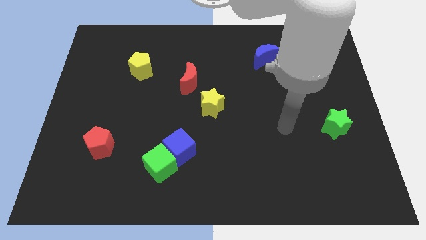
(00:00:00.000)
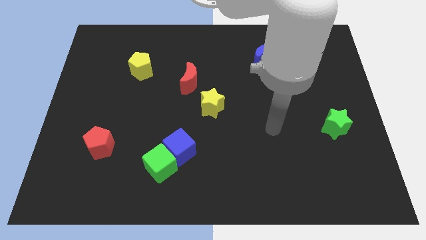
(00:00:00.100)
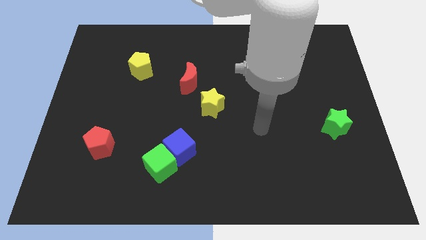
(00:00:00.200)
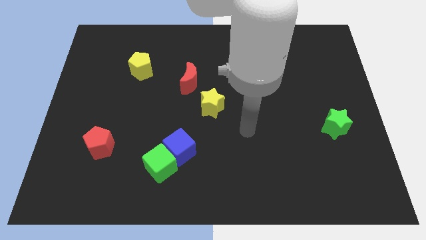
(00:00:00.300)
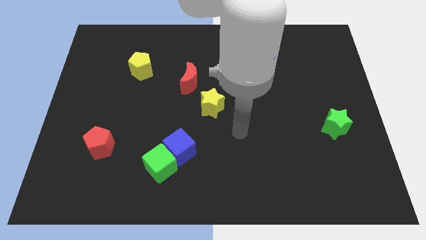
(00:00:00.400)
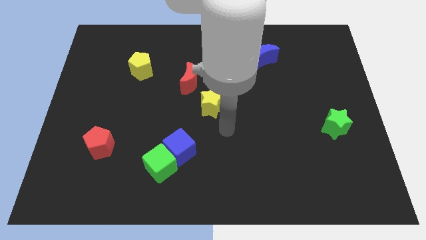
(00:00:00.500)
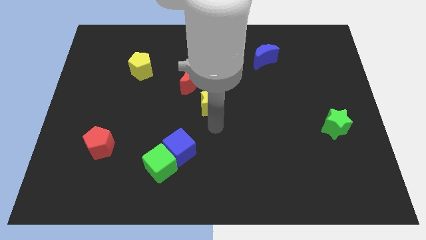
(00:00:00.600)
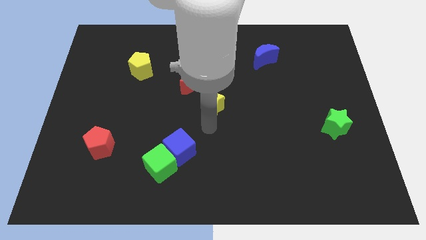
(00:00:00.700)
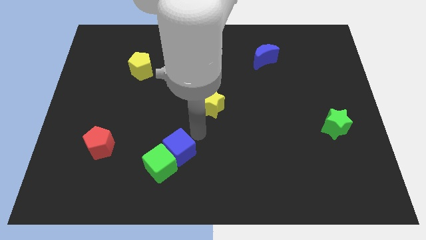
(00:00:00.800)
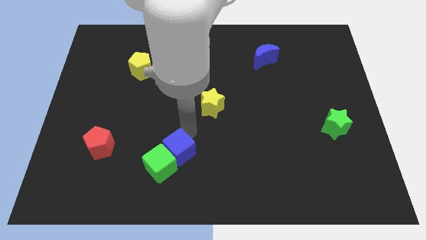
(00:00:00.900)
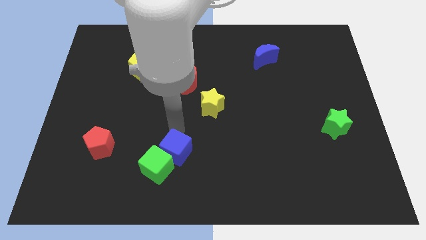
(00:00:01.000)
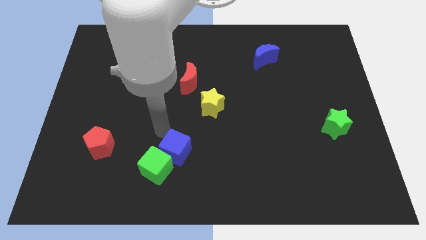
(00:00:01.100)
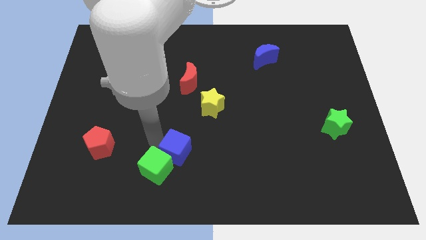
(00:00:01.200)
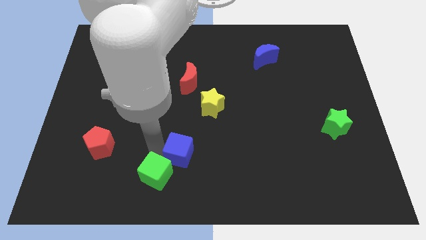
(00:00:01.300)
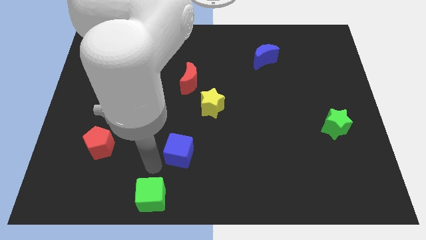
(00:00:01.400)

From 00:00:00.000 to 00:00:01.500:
move the blue cube away from the green cube

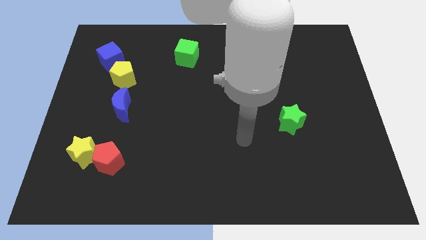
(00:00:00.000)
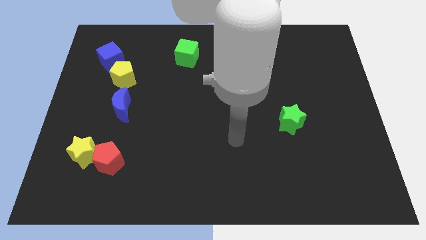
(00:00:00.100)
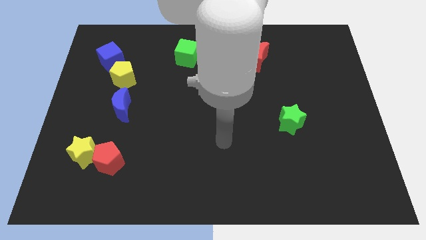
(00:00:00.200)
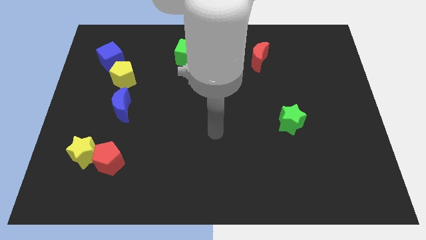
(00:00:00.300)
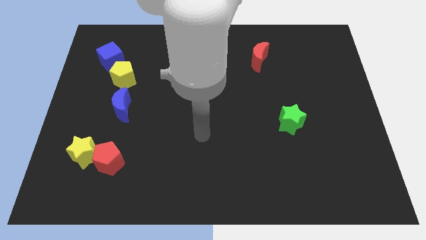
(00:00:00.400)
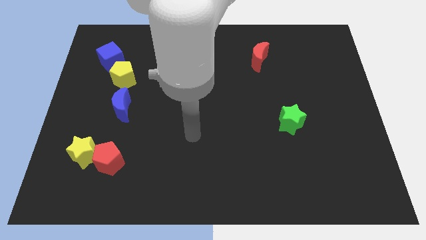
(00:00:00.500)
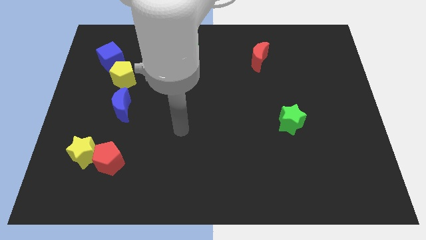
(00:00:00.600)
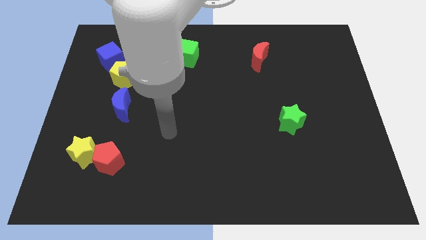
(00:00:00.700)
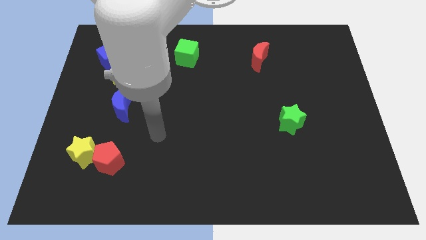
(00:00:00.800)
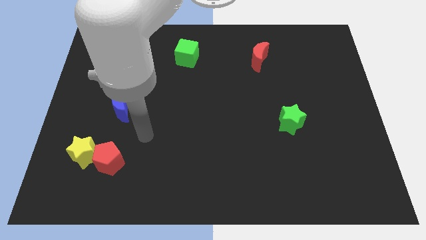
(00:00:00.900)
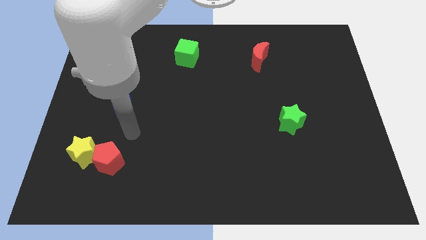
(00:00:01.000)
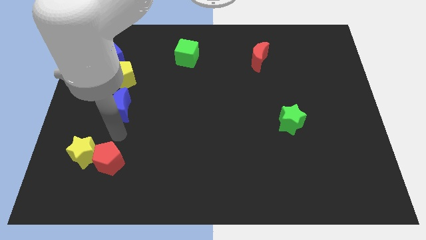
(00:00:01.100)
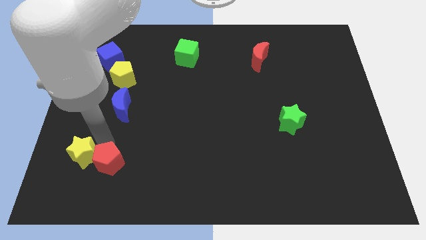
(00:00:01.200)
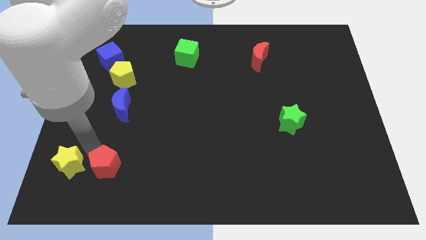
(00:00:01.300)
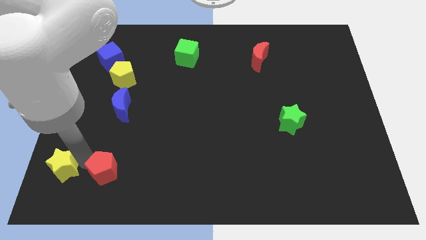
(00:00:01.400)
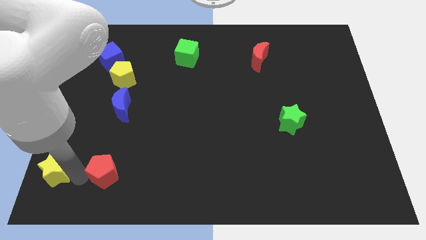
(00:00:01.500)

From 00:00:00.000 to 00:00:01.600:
pull the red pentagon apart from the yellow star

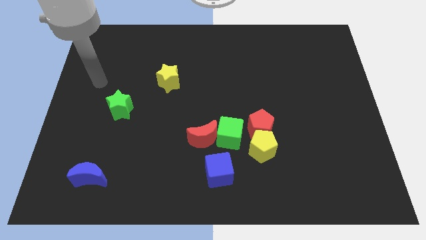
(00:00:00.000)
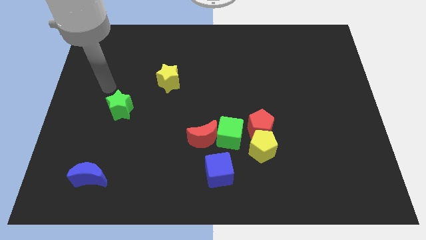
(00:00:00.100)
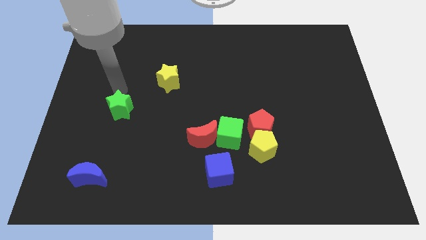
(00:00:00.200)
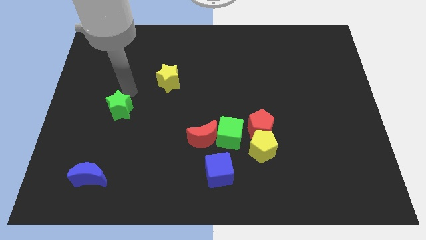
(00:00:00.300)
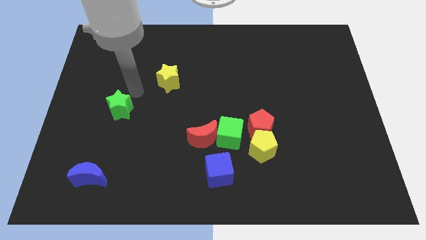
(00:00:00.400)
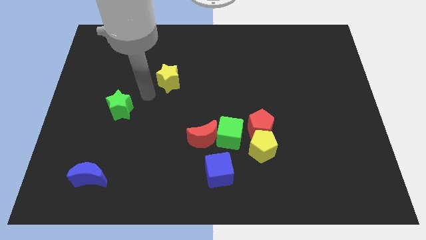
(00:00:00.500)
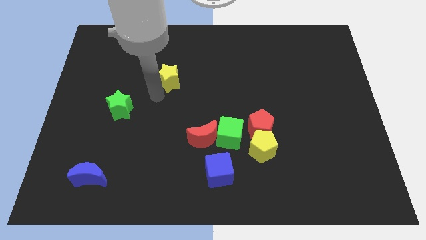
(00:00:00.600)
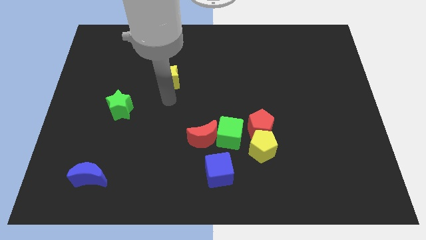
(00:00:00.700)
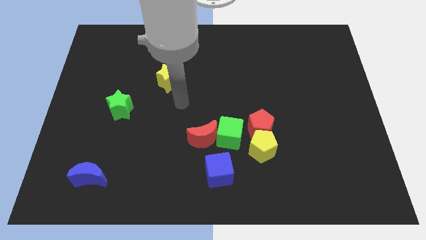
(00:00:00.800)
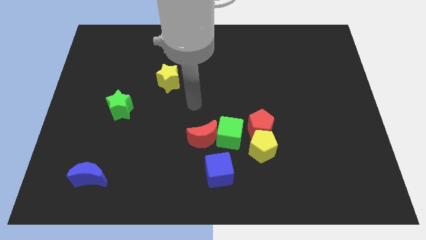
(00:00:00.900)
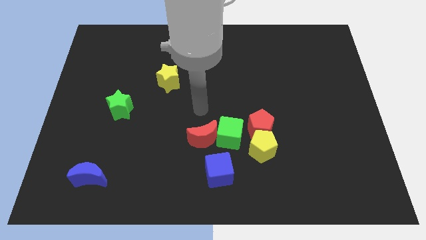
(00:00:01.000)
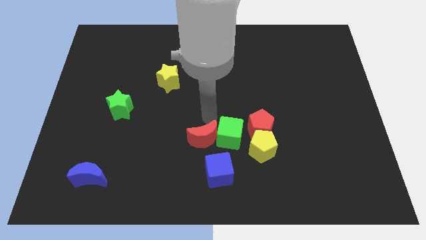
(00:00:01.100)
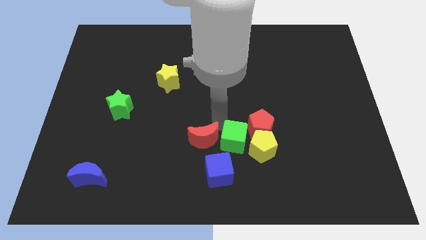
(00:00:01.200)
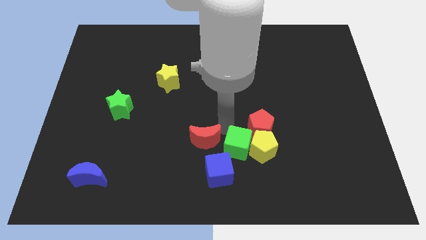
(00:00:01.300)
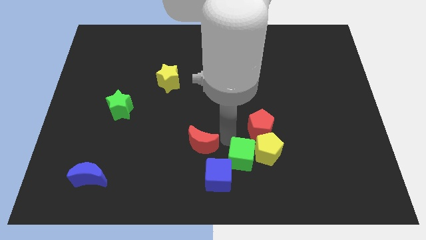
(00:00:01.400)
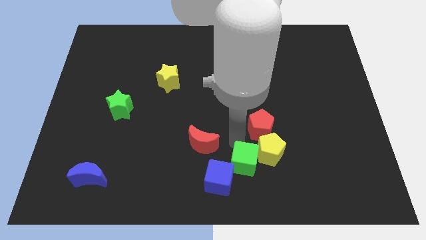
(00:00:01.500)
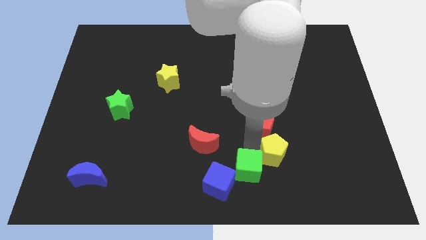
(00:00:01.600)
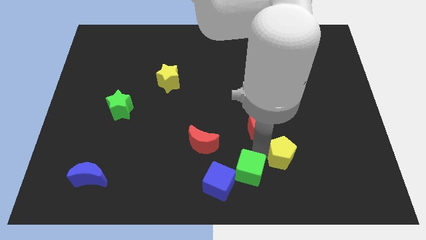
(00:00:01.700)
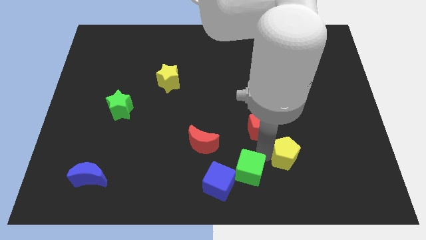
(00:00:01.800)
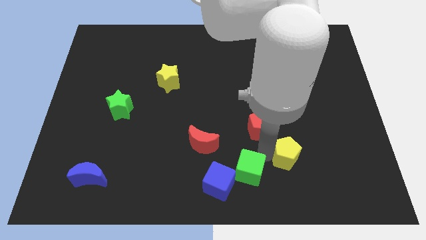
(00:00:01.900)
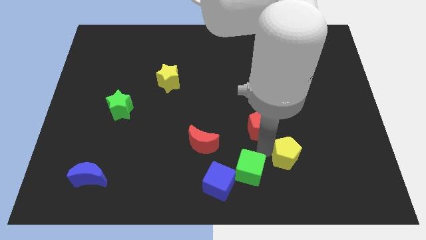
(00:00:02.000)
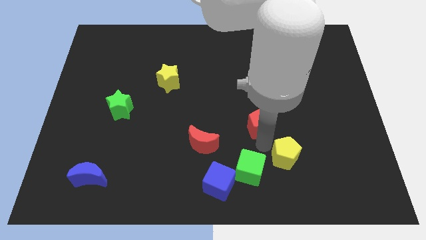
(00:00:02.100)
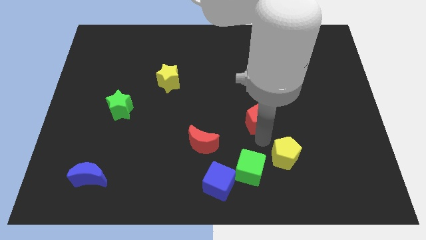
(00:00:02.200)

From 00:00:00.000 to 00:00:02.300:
separate the red pentagon from the yellow pentagon and green cube

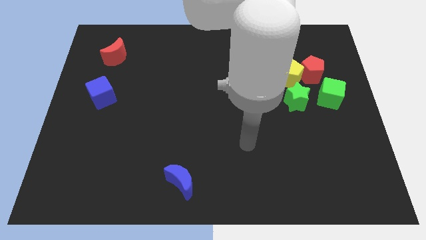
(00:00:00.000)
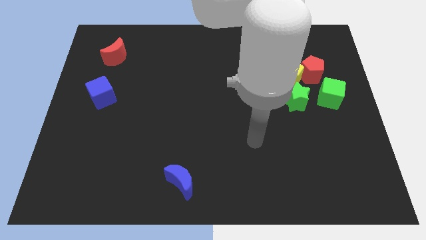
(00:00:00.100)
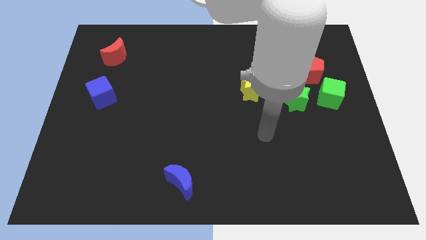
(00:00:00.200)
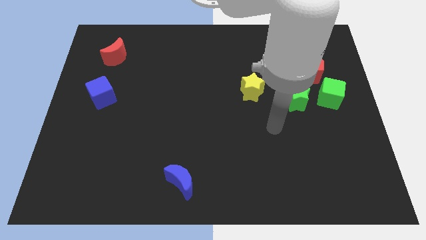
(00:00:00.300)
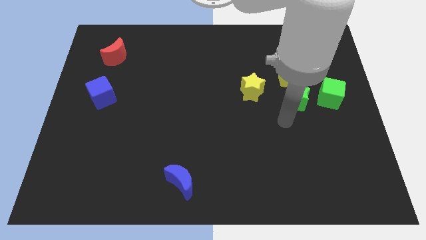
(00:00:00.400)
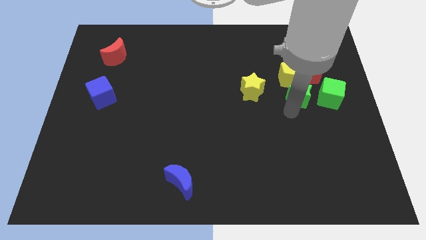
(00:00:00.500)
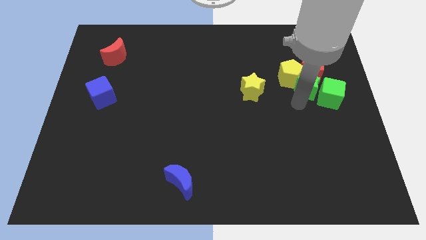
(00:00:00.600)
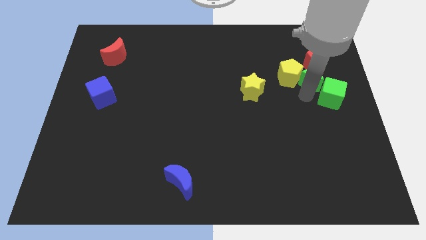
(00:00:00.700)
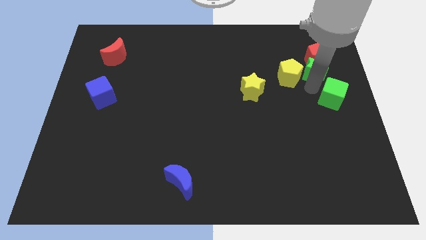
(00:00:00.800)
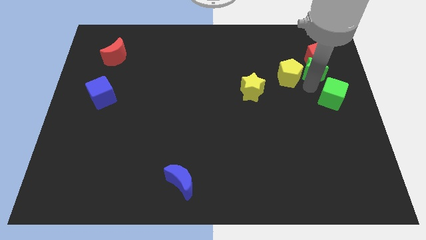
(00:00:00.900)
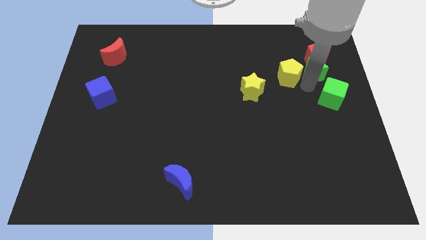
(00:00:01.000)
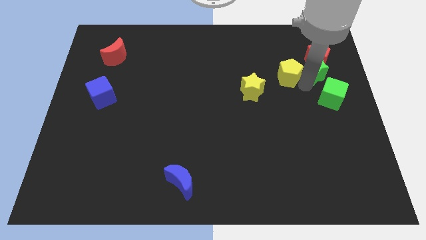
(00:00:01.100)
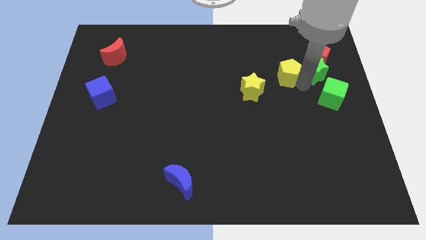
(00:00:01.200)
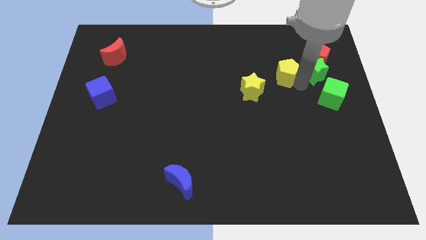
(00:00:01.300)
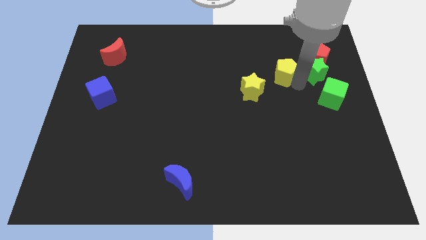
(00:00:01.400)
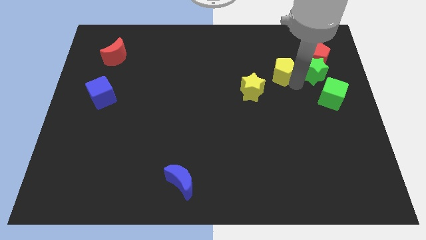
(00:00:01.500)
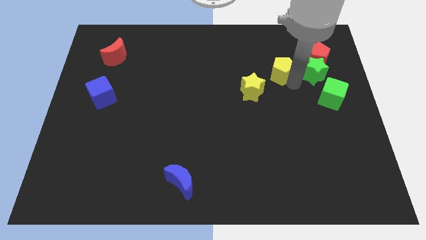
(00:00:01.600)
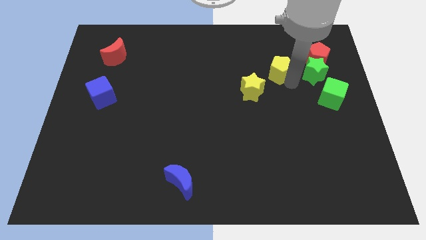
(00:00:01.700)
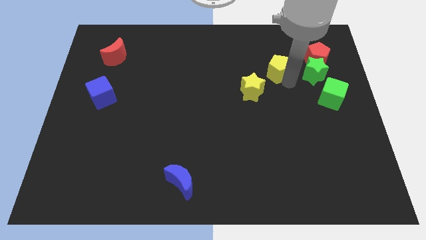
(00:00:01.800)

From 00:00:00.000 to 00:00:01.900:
pull the yellow pentagon apart from the red pentagon and green star

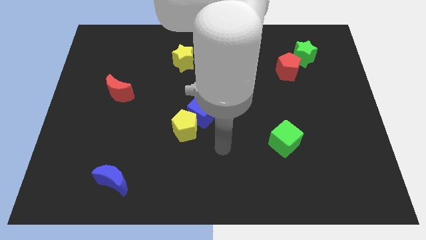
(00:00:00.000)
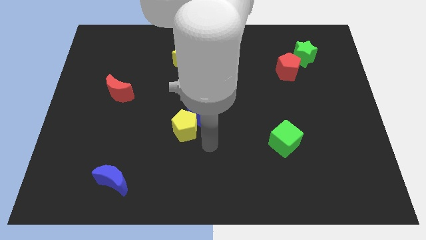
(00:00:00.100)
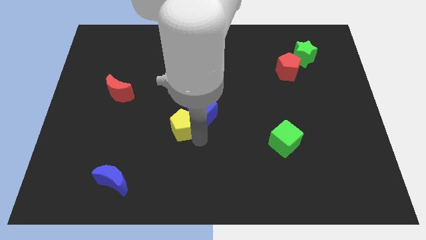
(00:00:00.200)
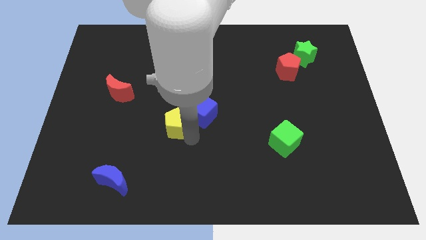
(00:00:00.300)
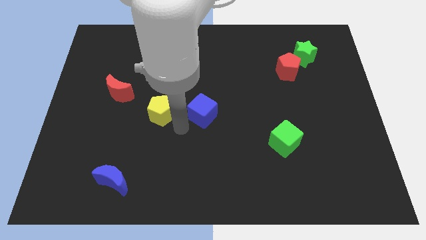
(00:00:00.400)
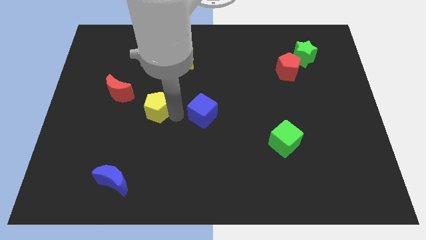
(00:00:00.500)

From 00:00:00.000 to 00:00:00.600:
separate the blue cube from the yellow pentagon

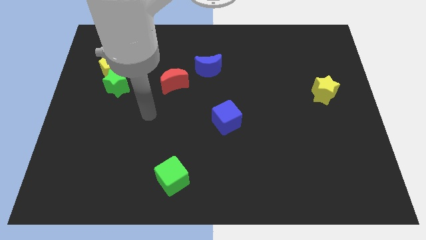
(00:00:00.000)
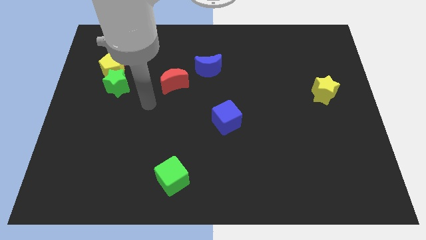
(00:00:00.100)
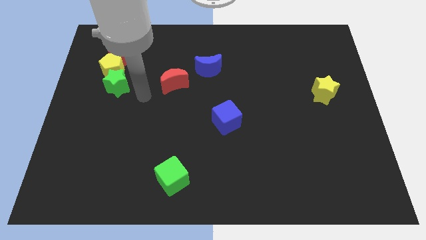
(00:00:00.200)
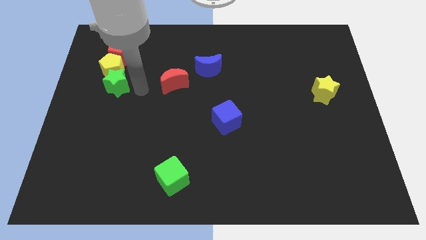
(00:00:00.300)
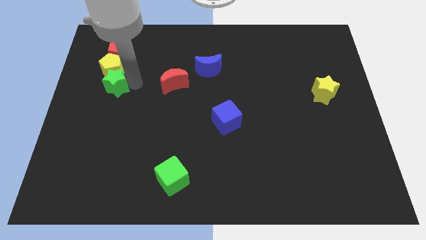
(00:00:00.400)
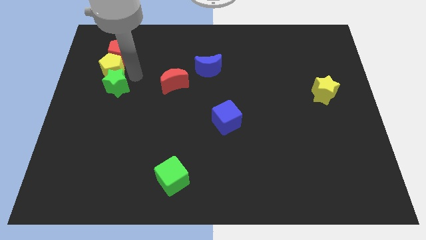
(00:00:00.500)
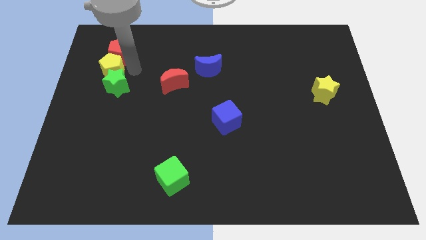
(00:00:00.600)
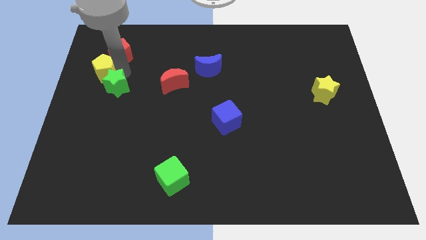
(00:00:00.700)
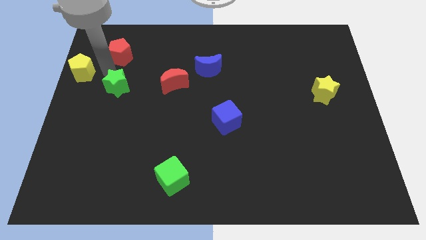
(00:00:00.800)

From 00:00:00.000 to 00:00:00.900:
pull the green star apart from the yellow pentagon

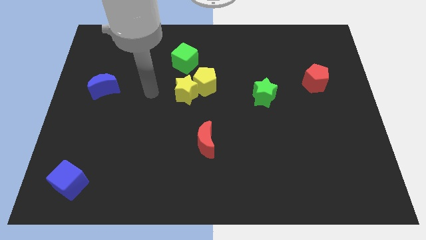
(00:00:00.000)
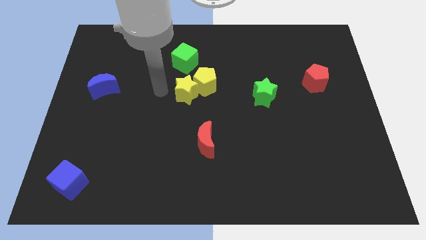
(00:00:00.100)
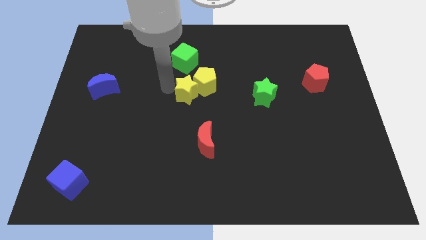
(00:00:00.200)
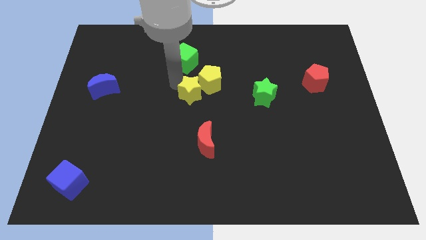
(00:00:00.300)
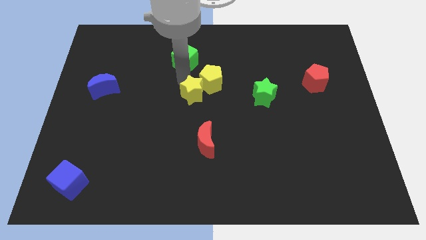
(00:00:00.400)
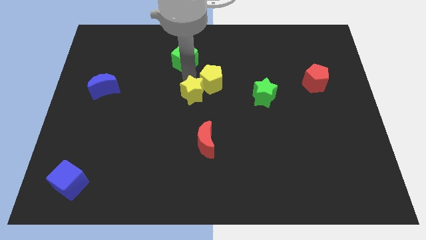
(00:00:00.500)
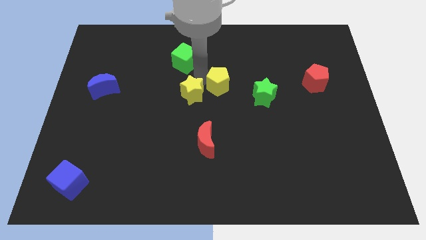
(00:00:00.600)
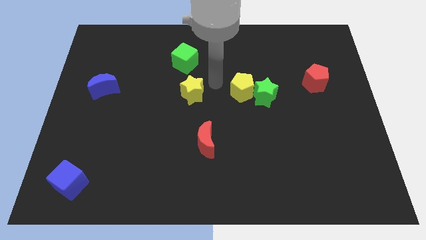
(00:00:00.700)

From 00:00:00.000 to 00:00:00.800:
separate the yellow star from the yellow pentagon
